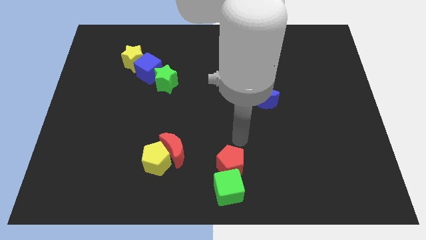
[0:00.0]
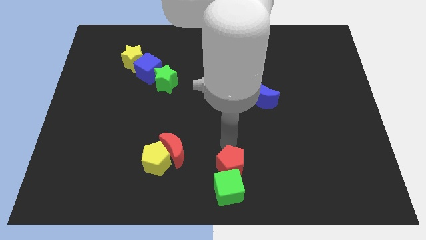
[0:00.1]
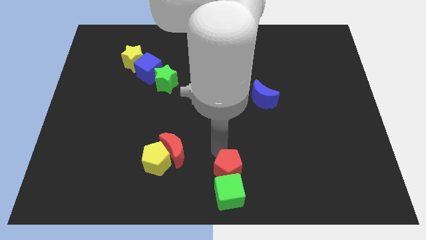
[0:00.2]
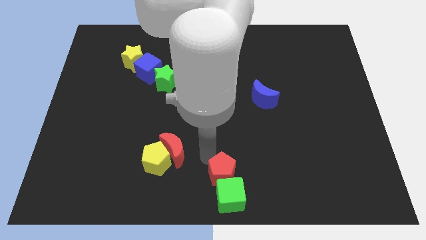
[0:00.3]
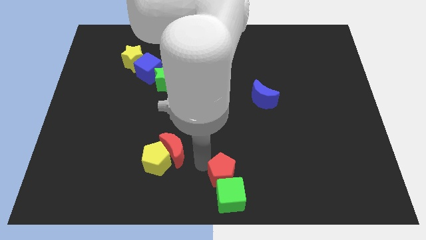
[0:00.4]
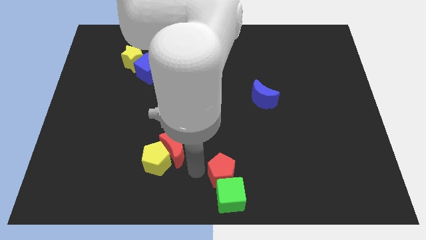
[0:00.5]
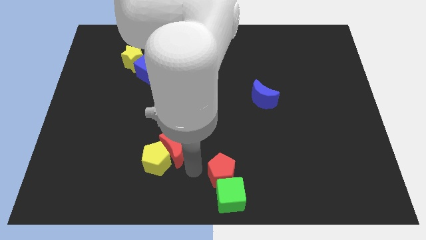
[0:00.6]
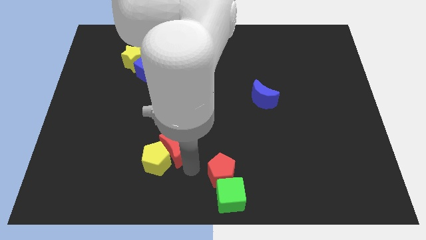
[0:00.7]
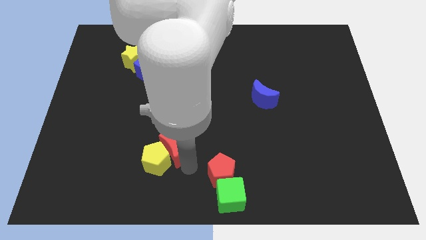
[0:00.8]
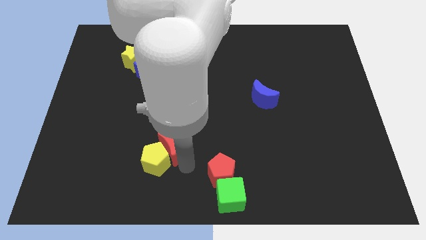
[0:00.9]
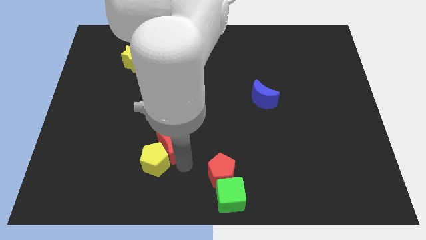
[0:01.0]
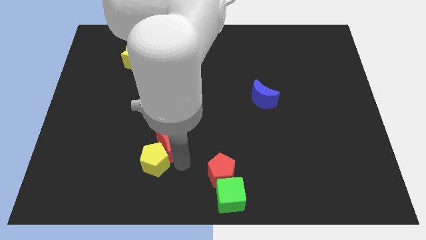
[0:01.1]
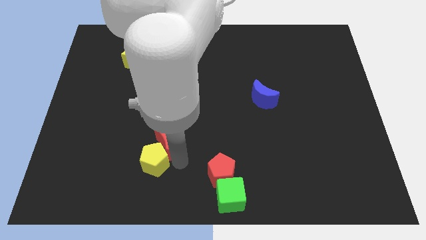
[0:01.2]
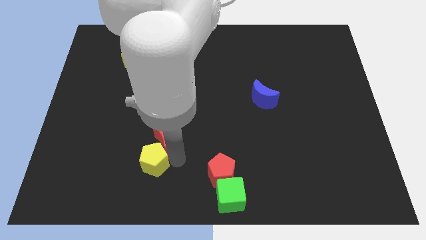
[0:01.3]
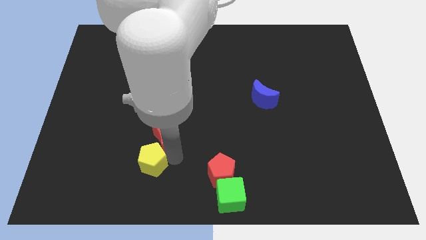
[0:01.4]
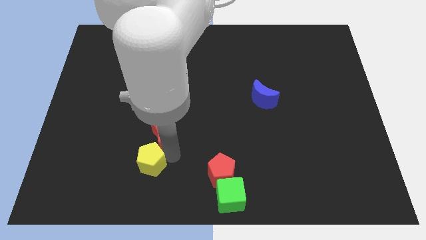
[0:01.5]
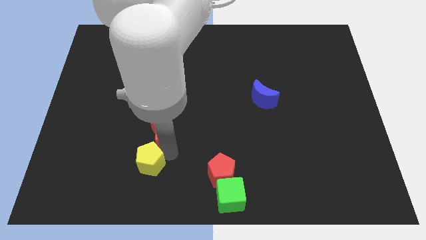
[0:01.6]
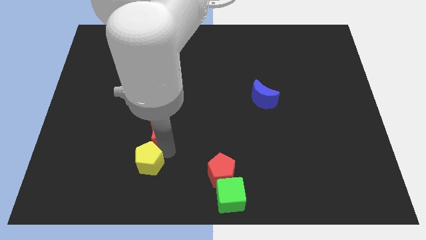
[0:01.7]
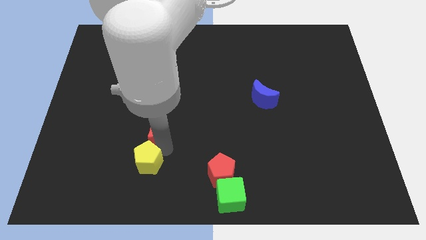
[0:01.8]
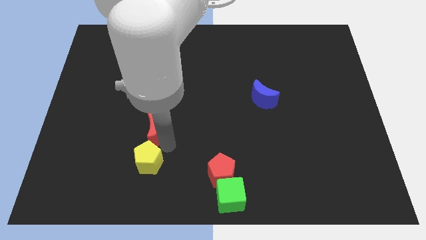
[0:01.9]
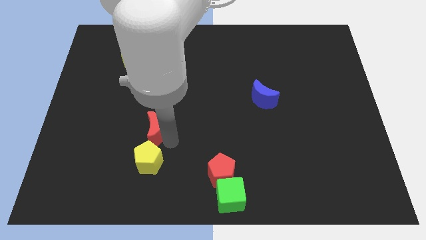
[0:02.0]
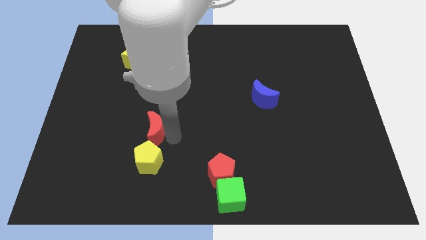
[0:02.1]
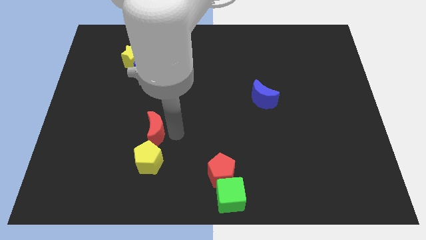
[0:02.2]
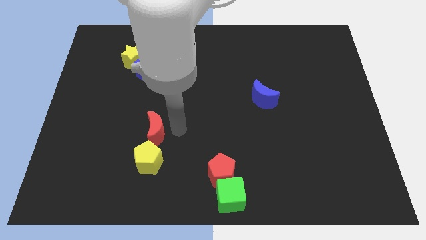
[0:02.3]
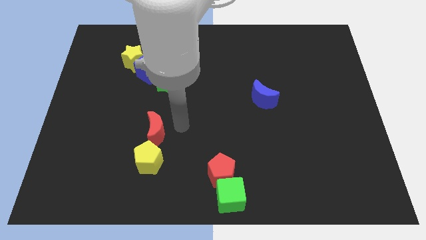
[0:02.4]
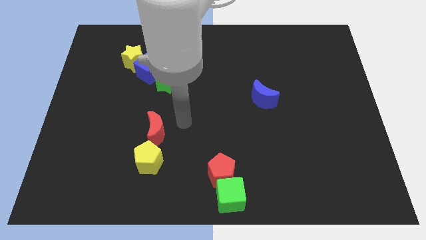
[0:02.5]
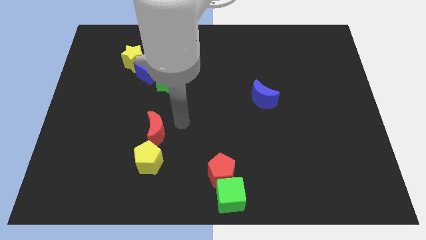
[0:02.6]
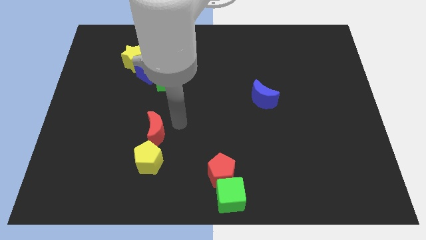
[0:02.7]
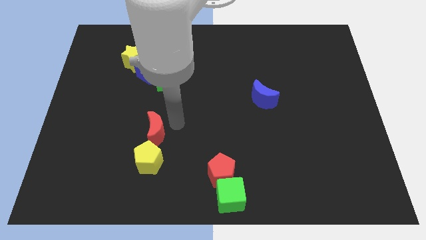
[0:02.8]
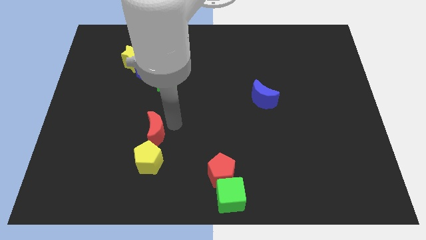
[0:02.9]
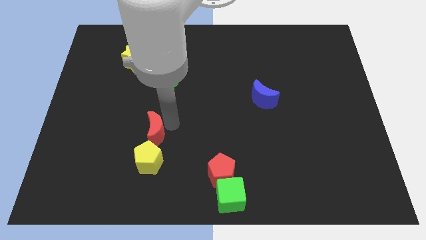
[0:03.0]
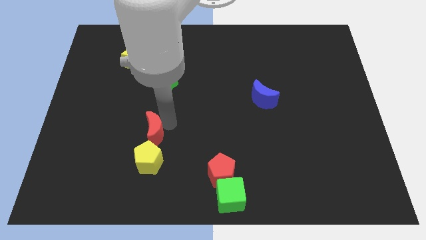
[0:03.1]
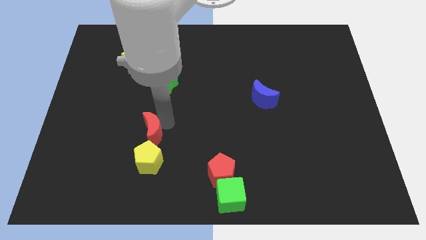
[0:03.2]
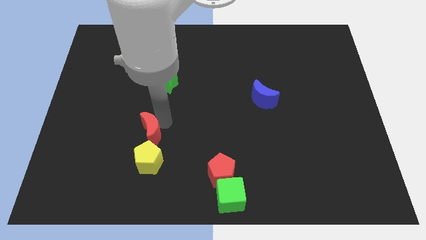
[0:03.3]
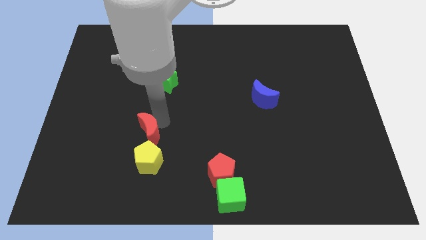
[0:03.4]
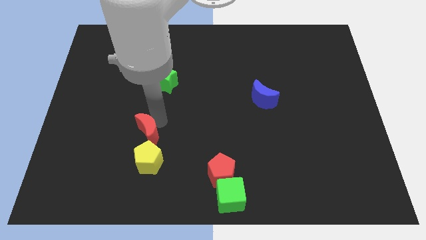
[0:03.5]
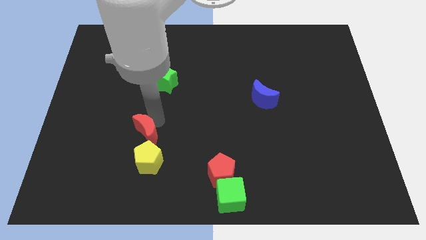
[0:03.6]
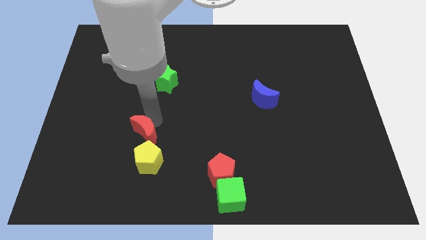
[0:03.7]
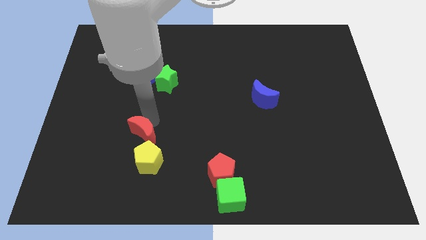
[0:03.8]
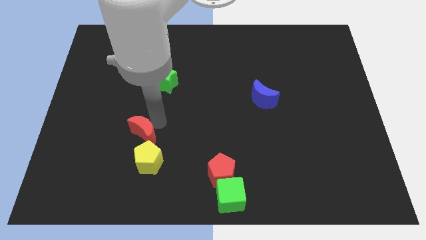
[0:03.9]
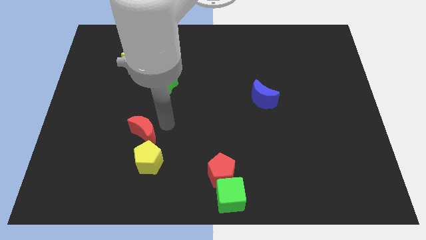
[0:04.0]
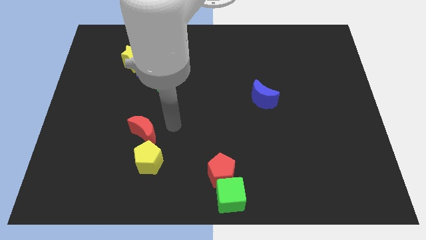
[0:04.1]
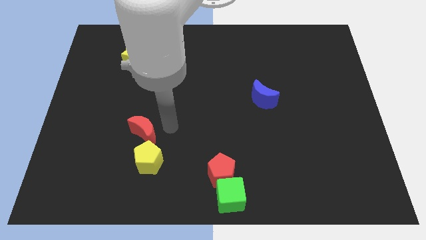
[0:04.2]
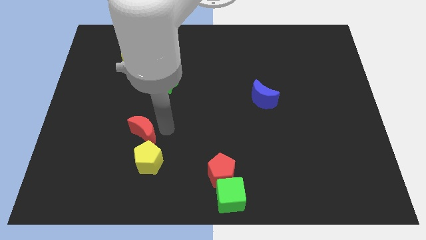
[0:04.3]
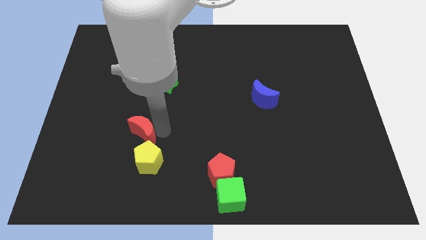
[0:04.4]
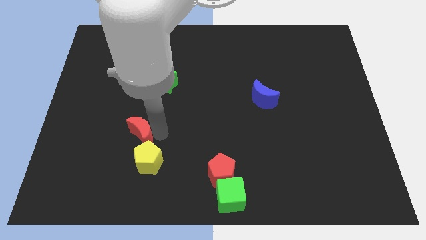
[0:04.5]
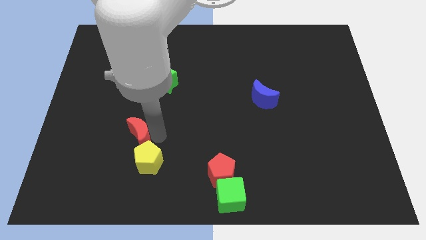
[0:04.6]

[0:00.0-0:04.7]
push the red moon to the left a little bit

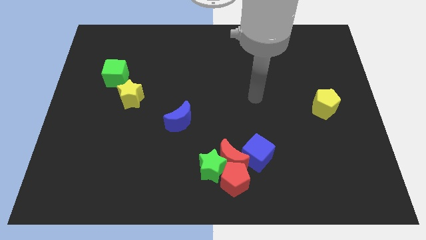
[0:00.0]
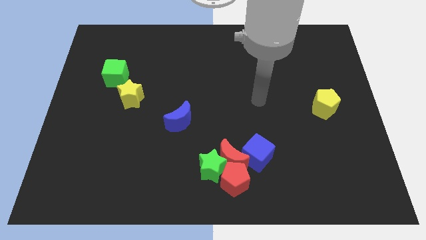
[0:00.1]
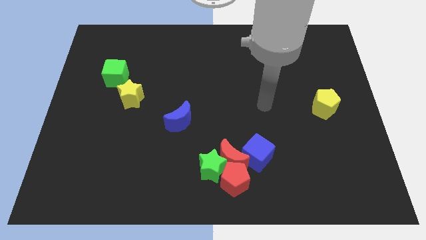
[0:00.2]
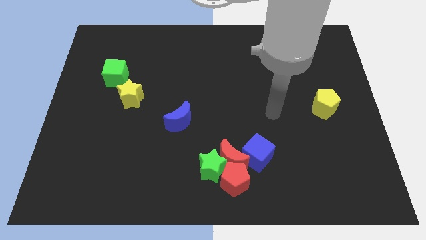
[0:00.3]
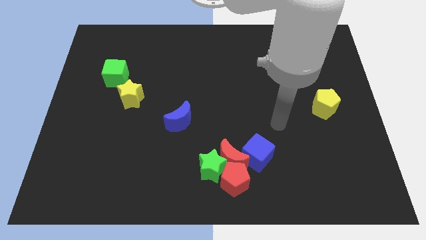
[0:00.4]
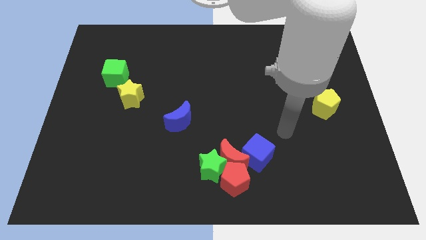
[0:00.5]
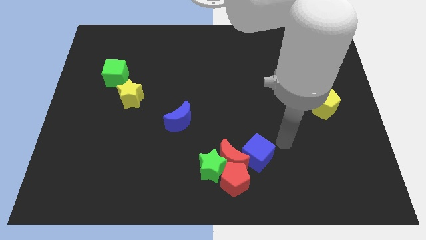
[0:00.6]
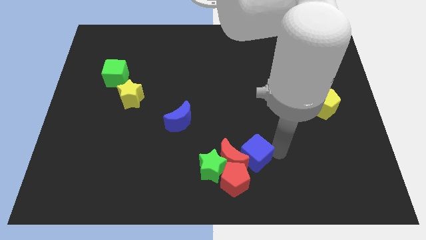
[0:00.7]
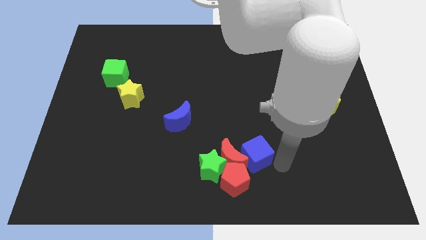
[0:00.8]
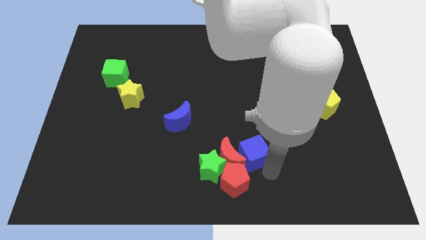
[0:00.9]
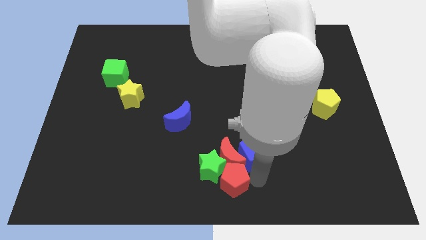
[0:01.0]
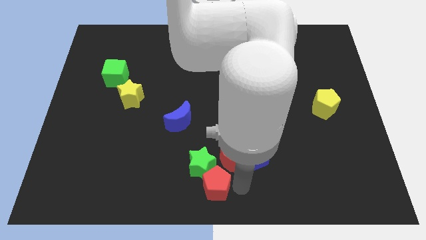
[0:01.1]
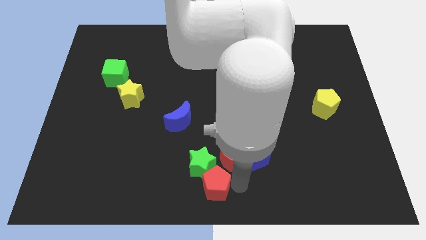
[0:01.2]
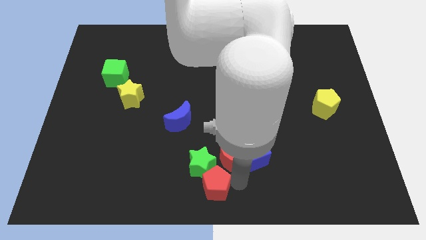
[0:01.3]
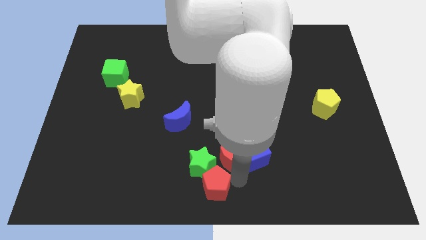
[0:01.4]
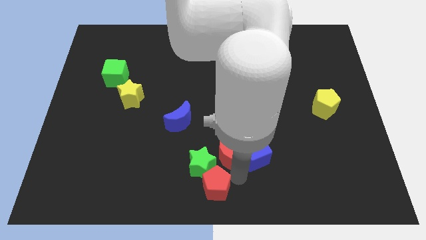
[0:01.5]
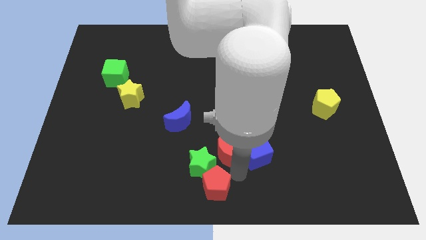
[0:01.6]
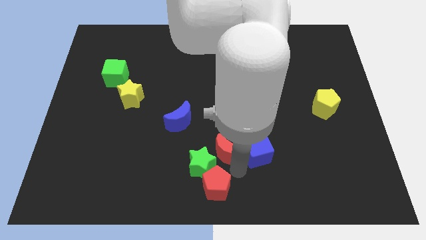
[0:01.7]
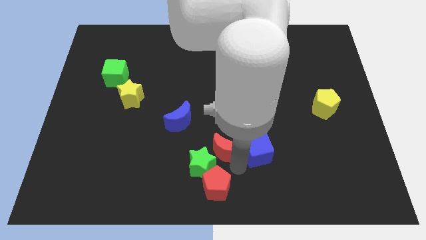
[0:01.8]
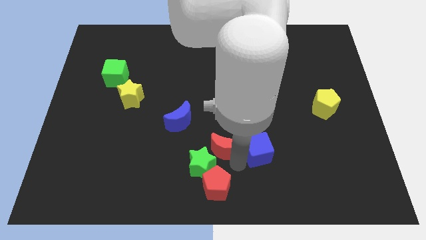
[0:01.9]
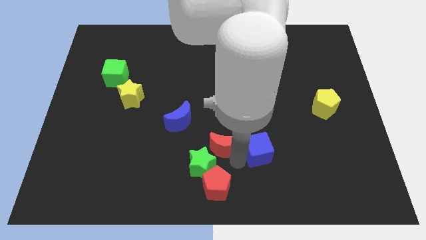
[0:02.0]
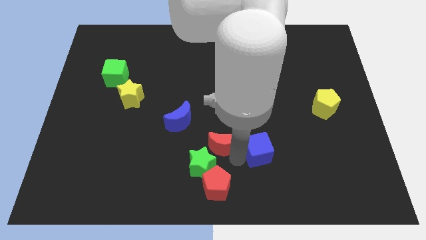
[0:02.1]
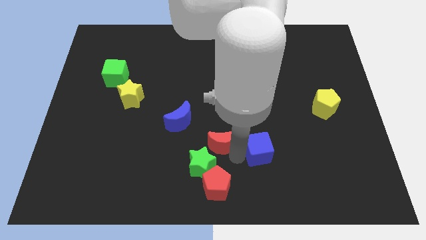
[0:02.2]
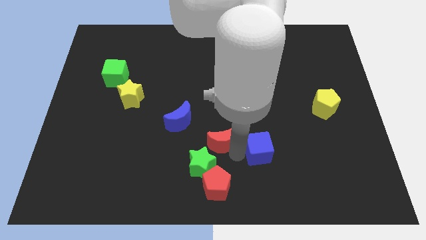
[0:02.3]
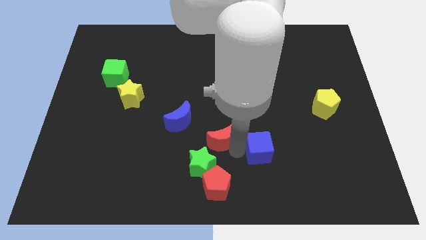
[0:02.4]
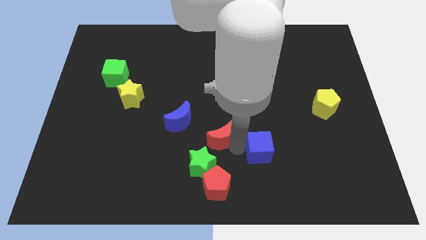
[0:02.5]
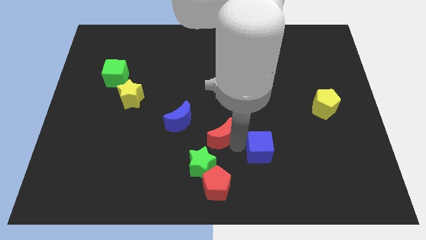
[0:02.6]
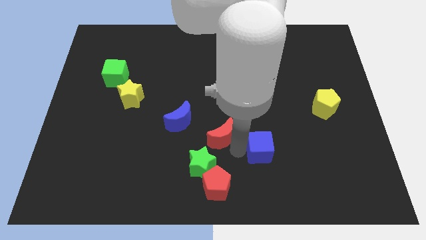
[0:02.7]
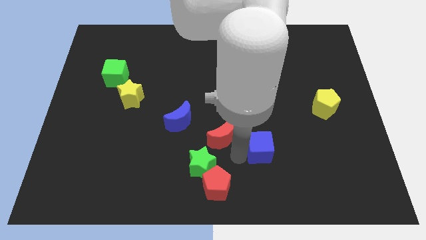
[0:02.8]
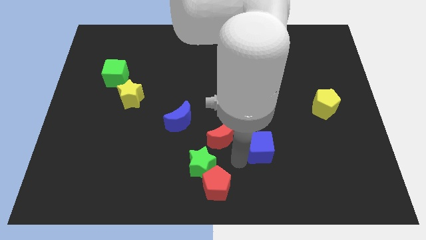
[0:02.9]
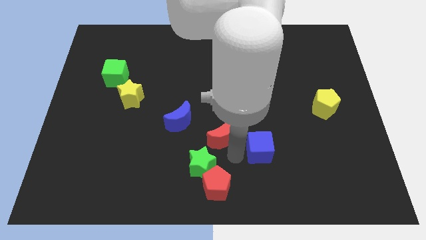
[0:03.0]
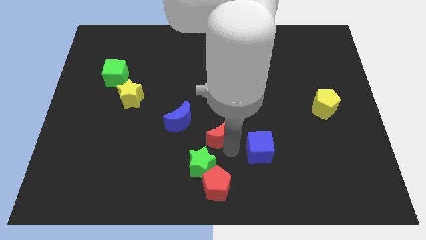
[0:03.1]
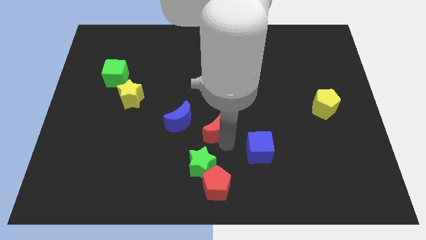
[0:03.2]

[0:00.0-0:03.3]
slightly slide the red moon diagonally upwards and to the left

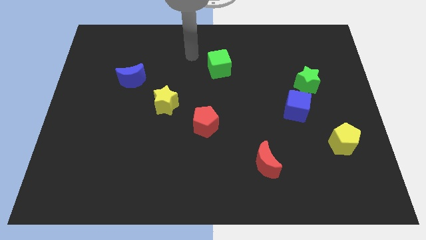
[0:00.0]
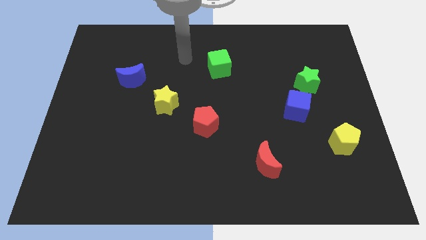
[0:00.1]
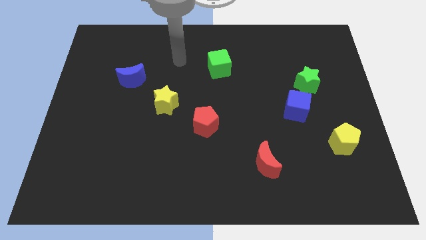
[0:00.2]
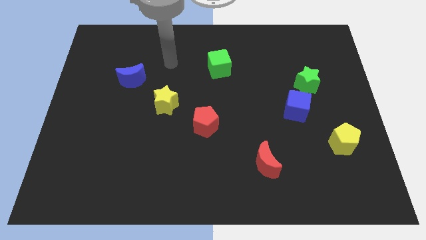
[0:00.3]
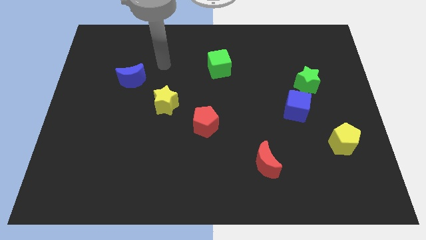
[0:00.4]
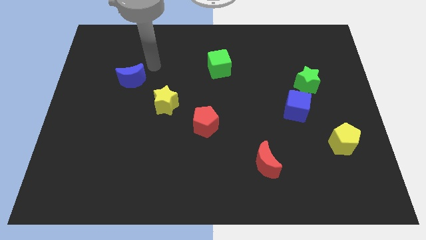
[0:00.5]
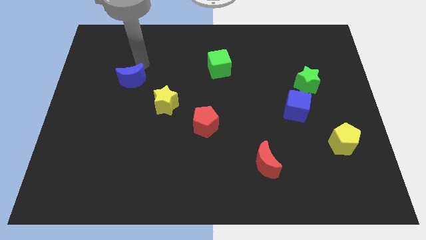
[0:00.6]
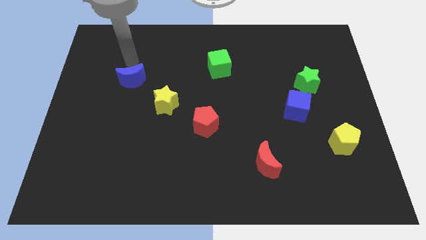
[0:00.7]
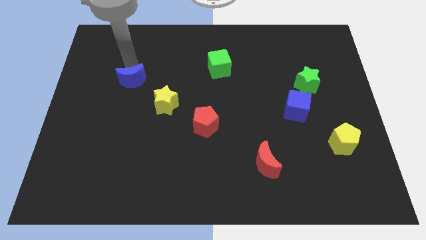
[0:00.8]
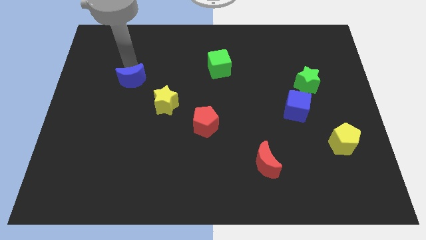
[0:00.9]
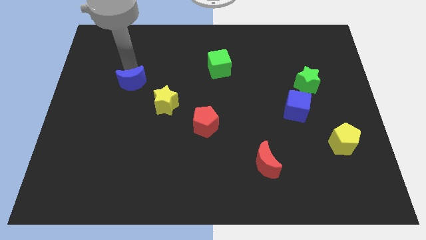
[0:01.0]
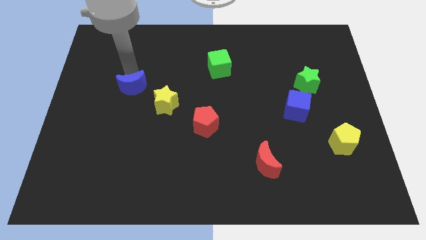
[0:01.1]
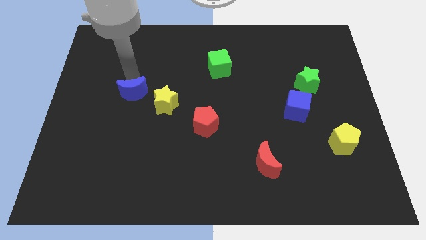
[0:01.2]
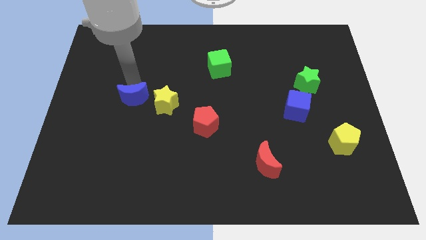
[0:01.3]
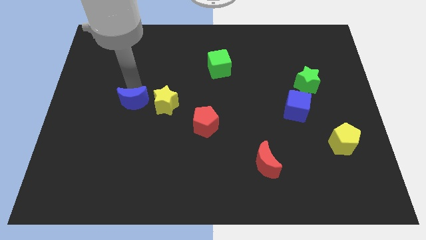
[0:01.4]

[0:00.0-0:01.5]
slightly push the blue moon down
